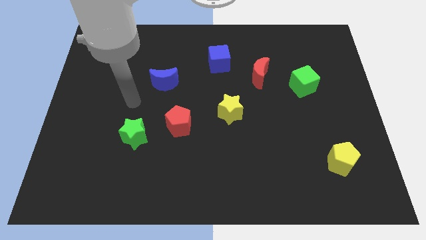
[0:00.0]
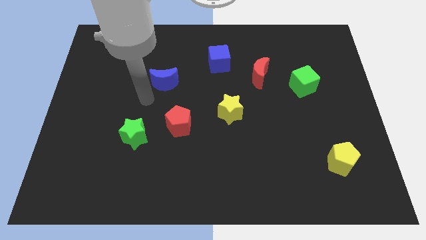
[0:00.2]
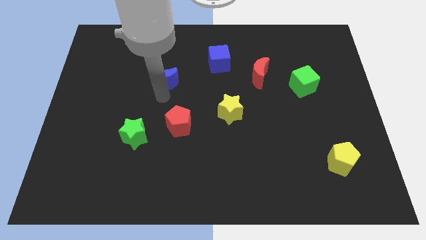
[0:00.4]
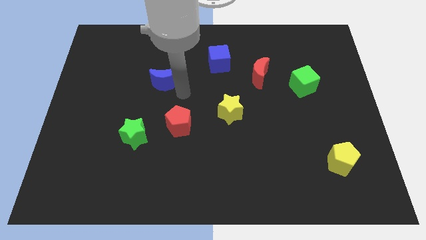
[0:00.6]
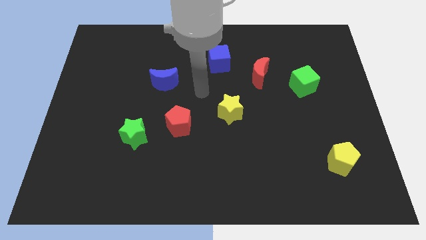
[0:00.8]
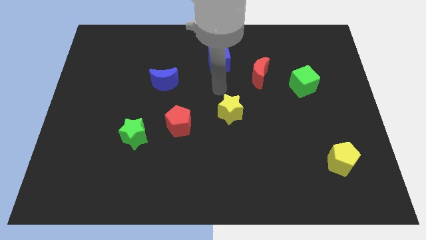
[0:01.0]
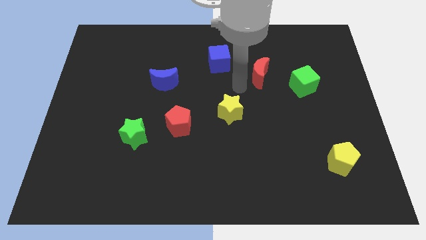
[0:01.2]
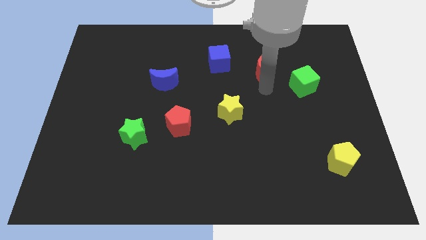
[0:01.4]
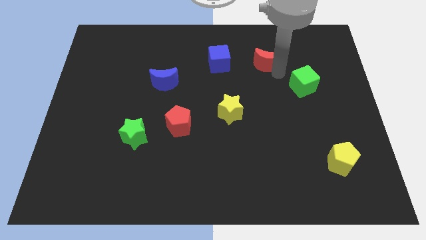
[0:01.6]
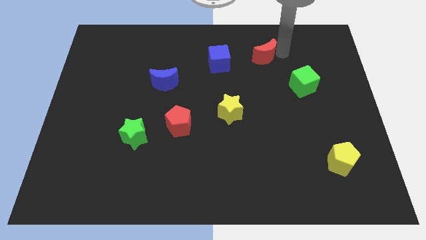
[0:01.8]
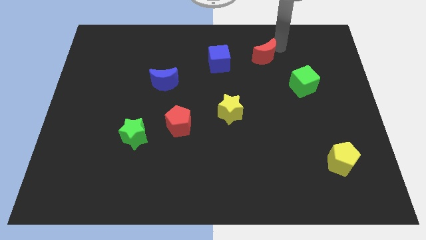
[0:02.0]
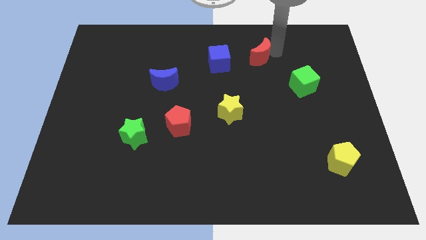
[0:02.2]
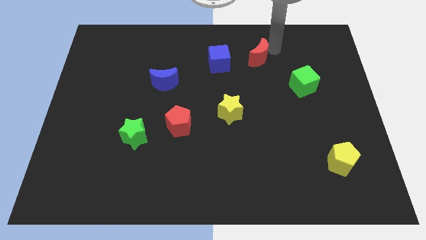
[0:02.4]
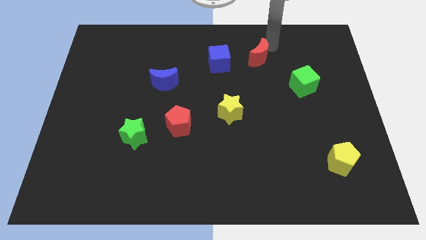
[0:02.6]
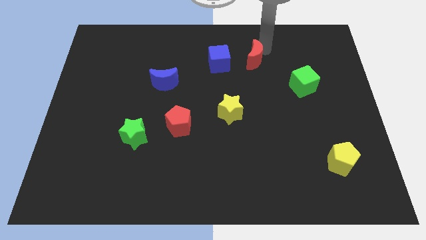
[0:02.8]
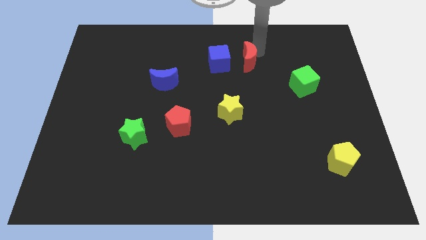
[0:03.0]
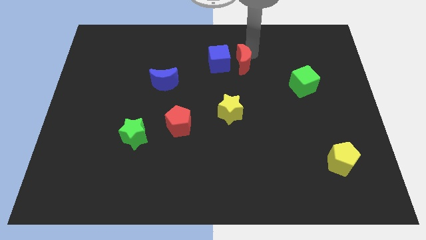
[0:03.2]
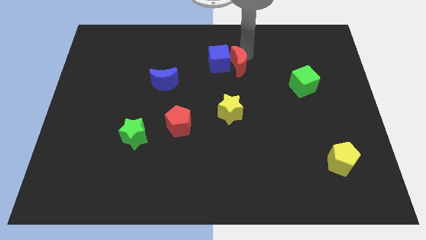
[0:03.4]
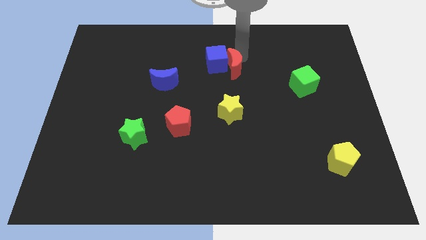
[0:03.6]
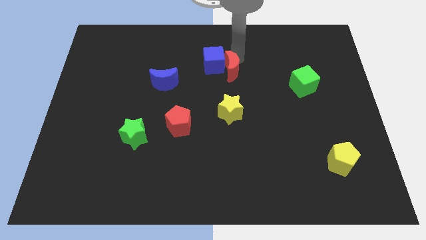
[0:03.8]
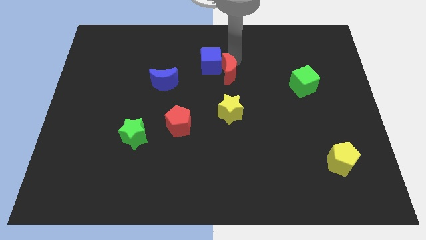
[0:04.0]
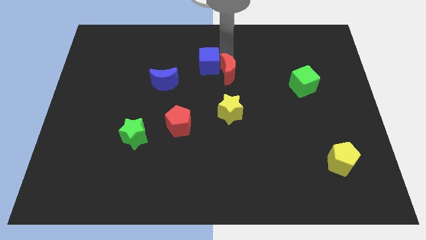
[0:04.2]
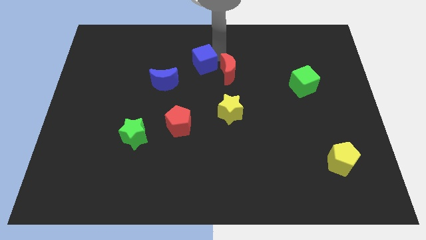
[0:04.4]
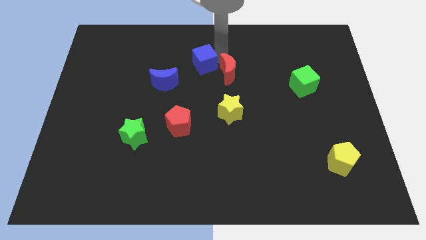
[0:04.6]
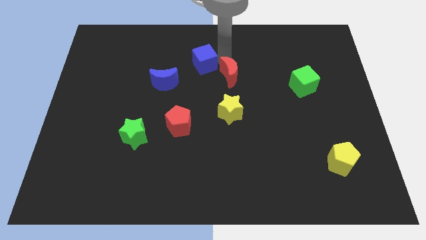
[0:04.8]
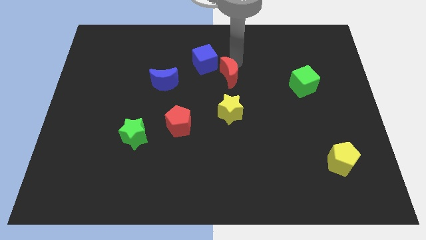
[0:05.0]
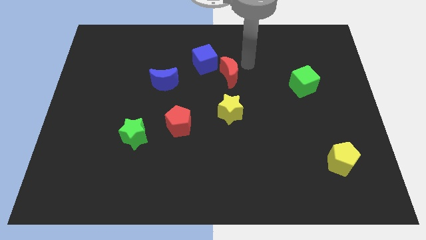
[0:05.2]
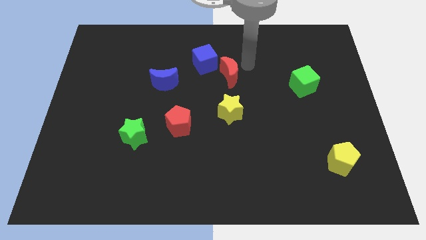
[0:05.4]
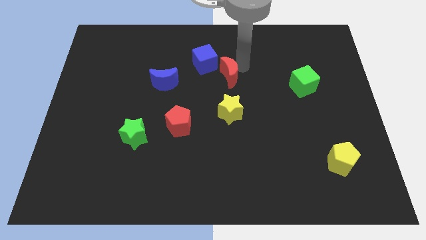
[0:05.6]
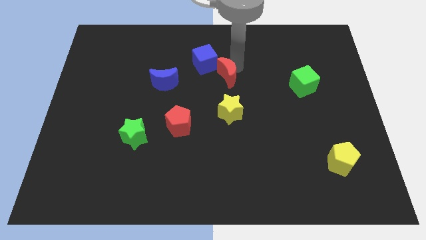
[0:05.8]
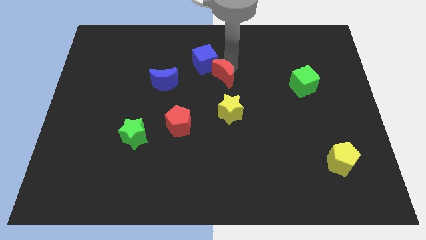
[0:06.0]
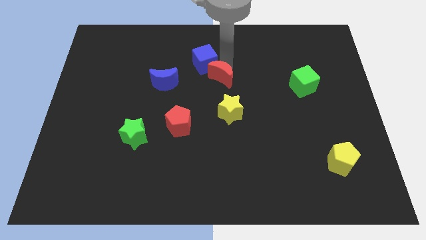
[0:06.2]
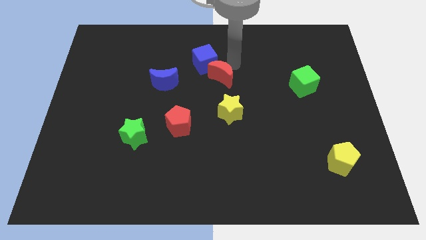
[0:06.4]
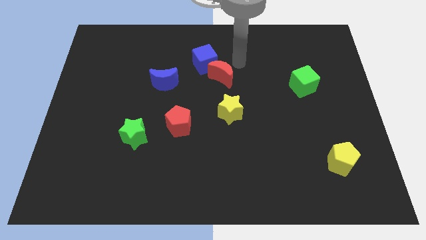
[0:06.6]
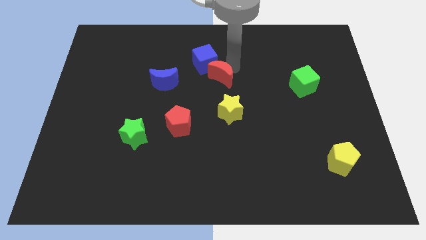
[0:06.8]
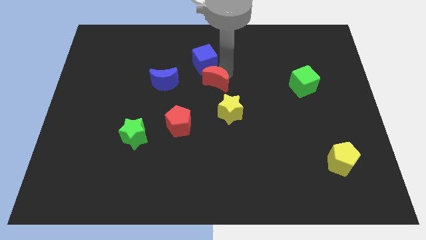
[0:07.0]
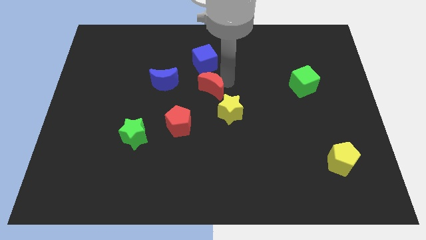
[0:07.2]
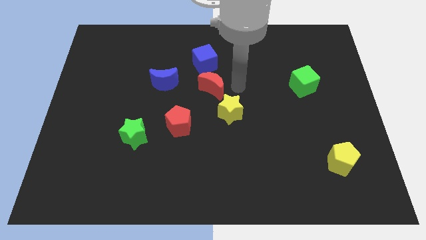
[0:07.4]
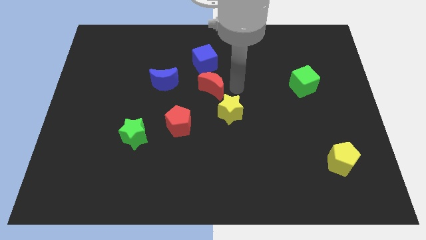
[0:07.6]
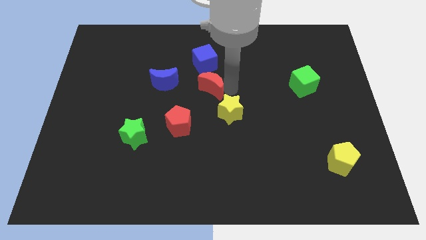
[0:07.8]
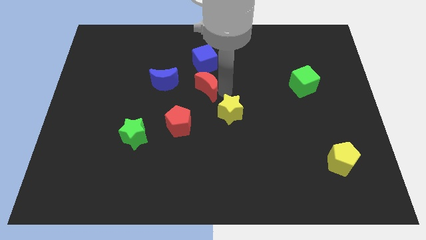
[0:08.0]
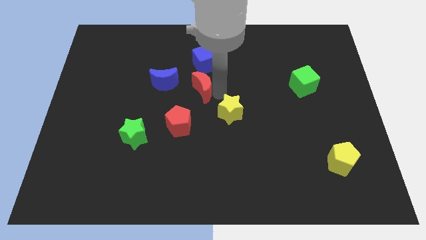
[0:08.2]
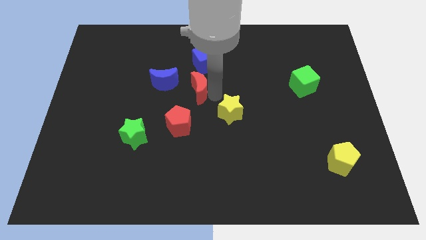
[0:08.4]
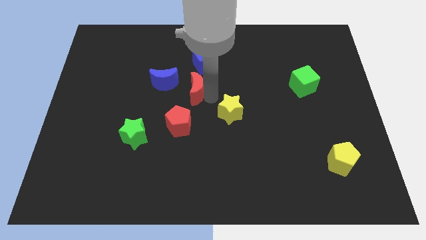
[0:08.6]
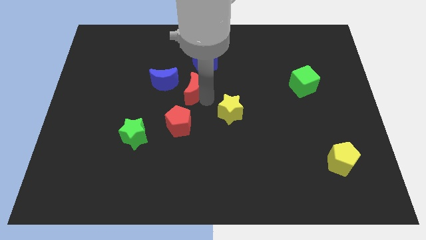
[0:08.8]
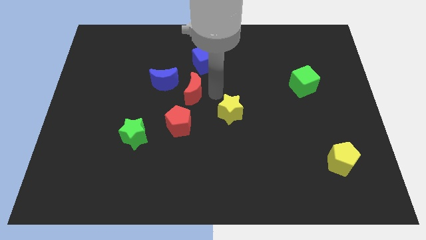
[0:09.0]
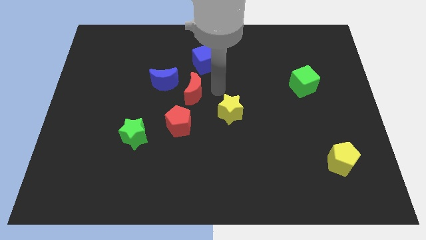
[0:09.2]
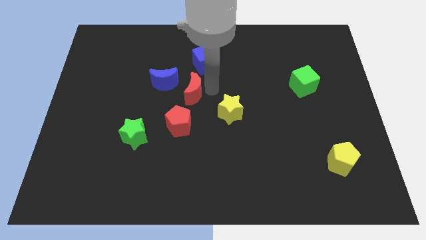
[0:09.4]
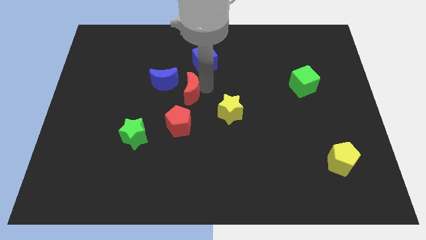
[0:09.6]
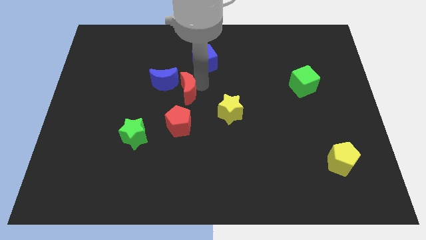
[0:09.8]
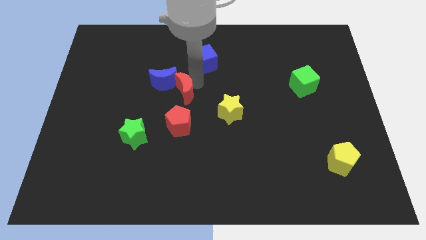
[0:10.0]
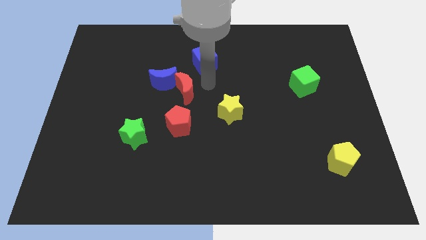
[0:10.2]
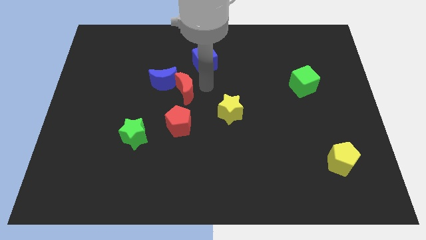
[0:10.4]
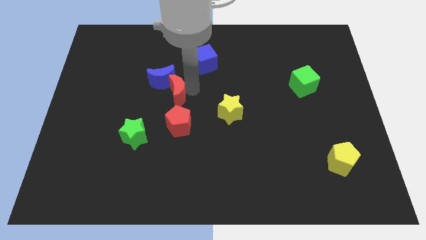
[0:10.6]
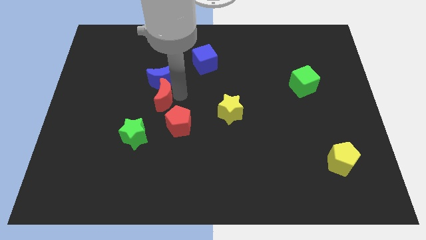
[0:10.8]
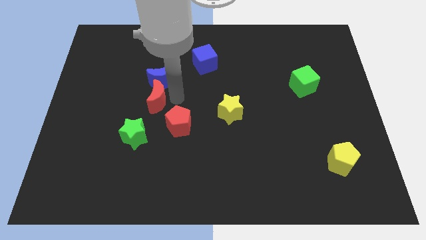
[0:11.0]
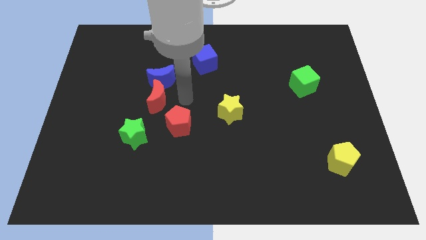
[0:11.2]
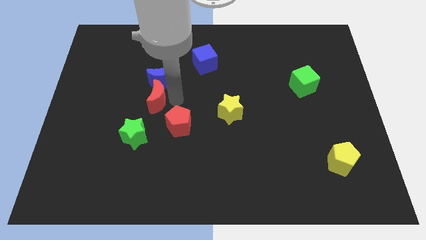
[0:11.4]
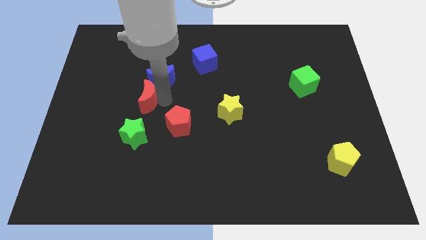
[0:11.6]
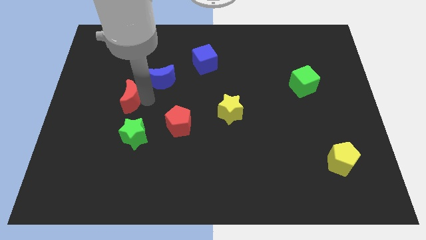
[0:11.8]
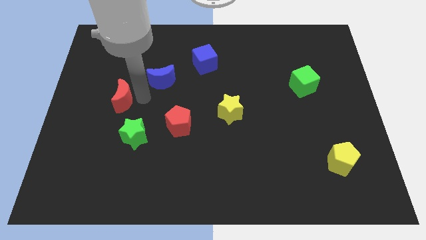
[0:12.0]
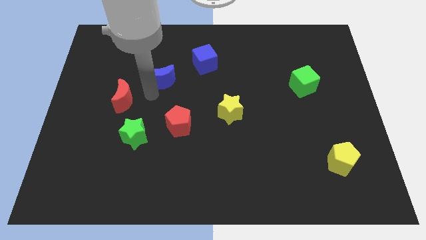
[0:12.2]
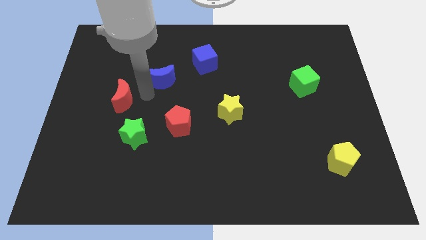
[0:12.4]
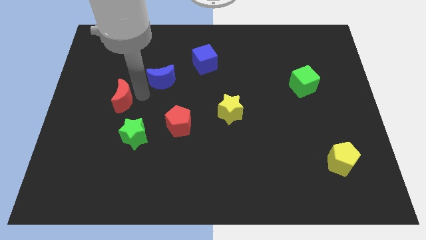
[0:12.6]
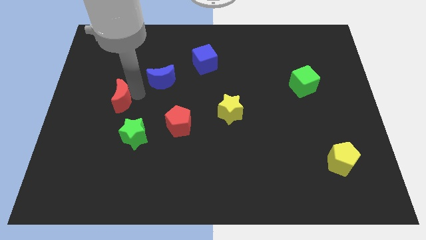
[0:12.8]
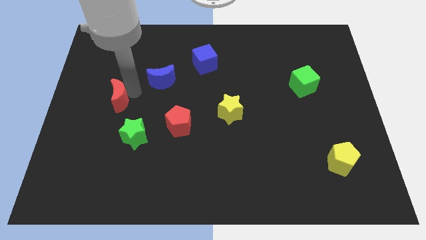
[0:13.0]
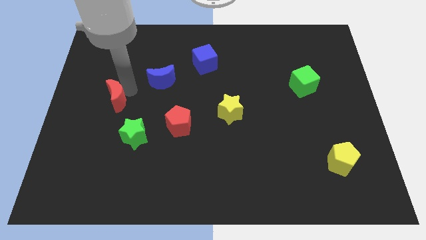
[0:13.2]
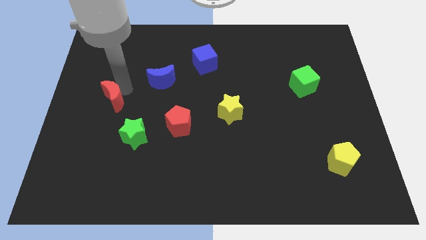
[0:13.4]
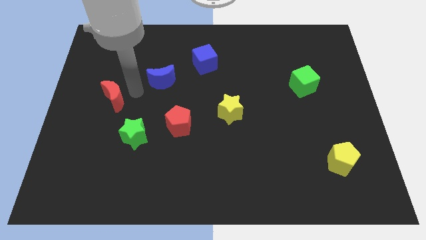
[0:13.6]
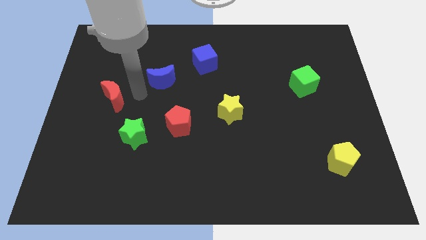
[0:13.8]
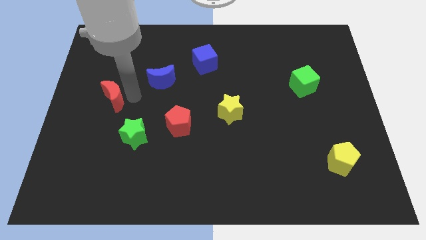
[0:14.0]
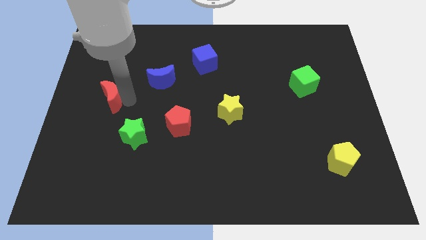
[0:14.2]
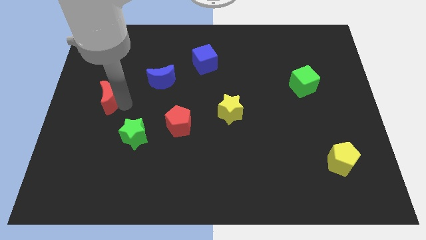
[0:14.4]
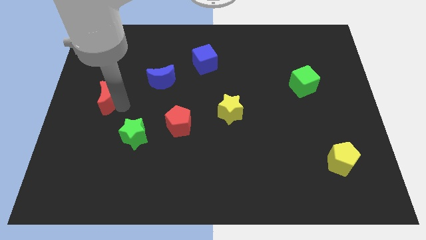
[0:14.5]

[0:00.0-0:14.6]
push the red moon to the left side of the board

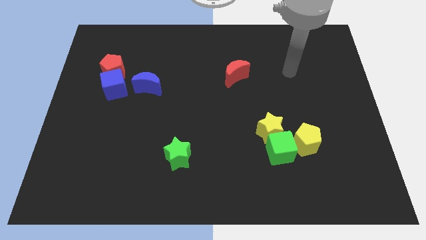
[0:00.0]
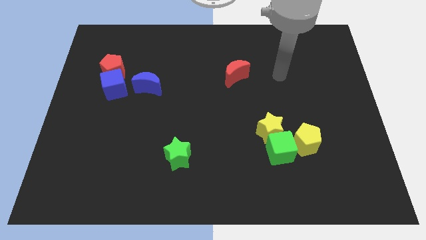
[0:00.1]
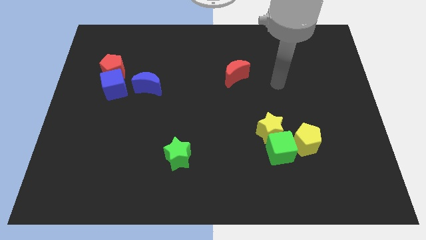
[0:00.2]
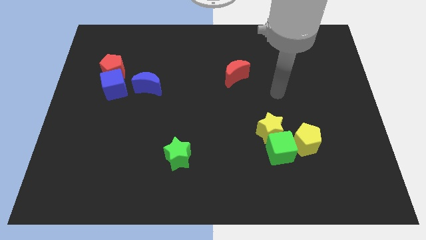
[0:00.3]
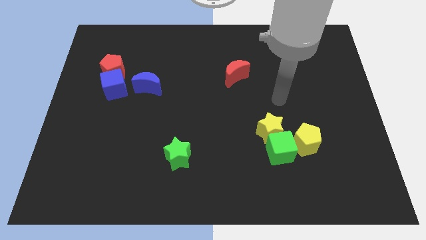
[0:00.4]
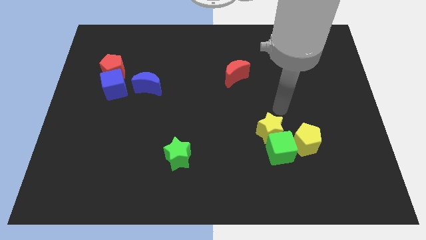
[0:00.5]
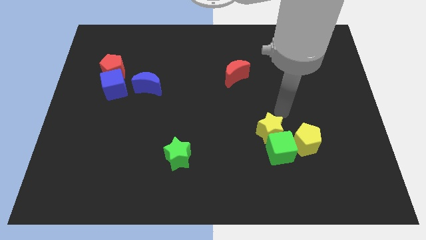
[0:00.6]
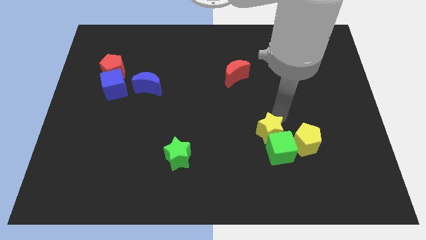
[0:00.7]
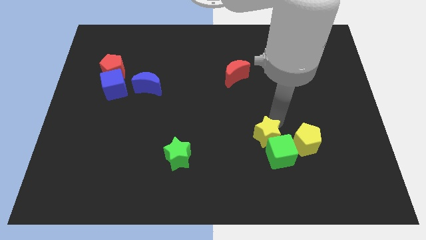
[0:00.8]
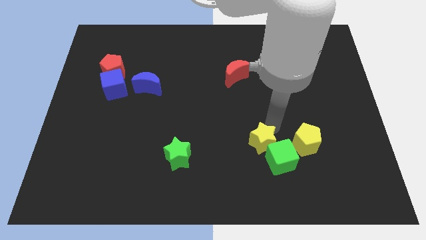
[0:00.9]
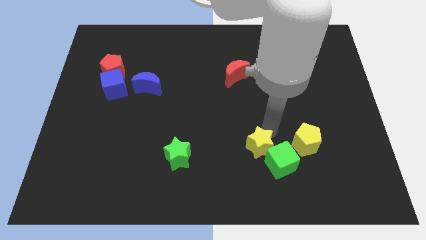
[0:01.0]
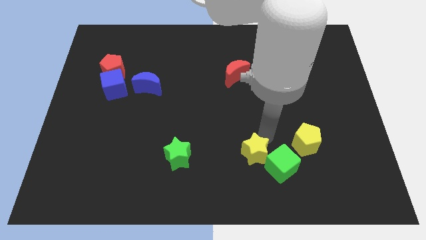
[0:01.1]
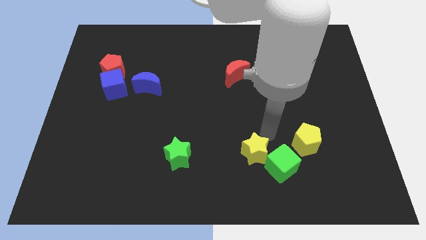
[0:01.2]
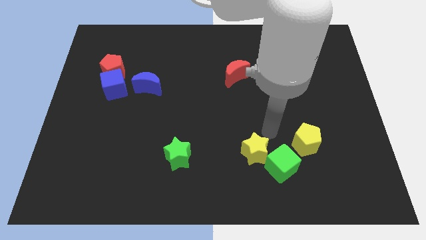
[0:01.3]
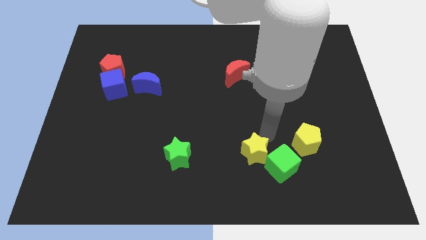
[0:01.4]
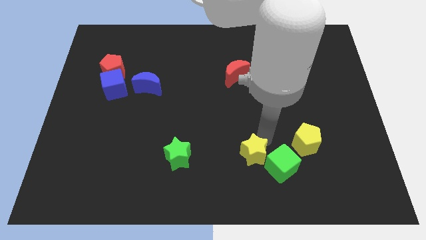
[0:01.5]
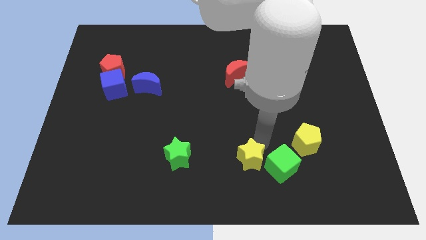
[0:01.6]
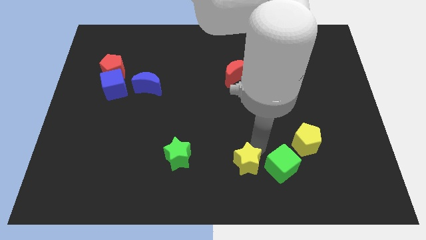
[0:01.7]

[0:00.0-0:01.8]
slide the yellow star to the bottom side
